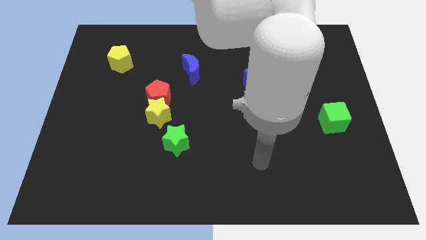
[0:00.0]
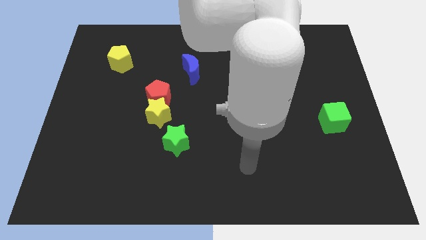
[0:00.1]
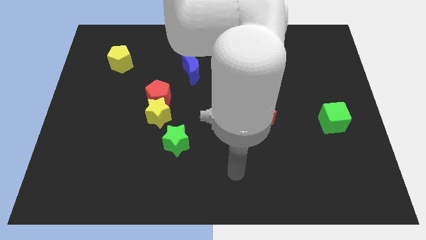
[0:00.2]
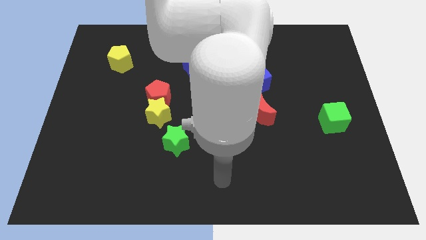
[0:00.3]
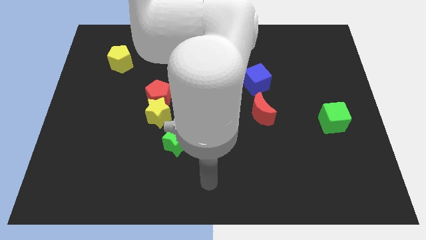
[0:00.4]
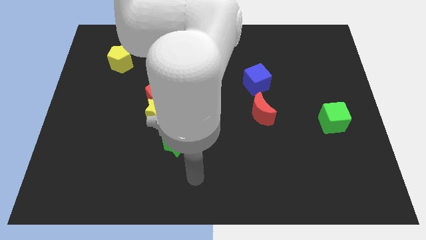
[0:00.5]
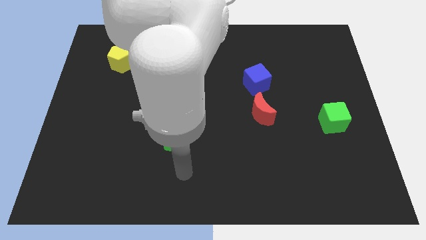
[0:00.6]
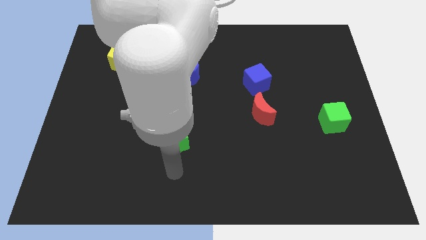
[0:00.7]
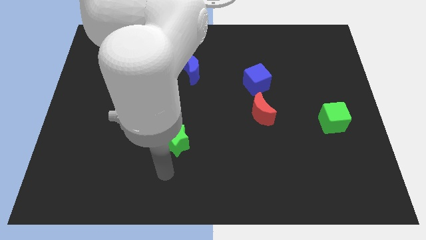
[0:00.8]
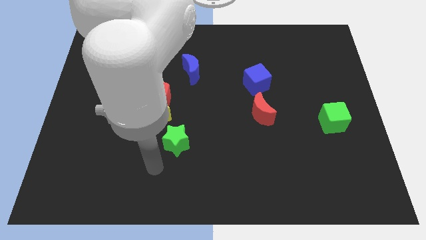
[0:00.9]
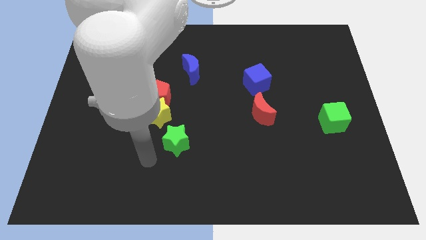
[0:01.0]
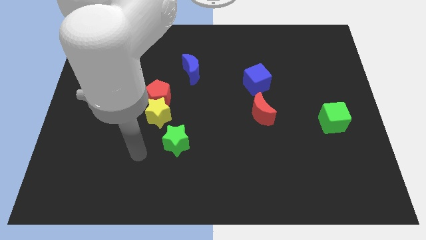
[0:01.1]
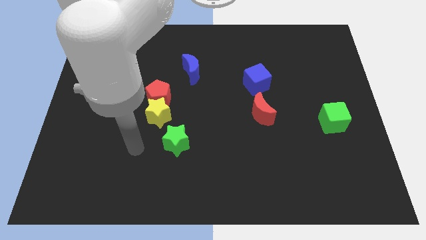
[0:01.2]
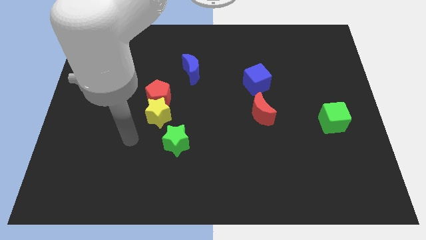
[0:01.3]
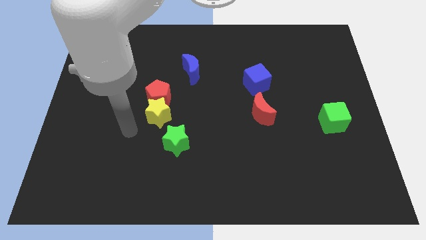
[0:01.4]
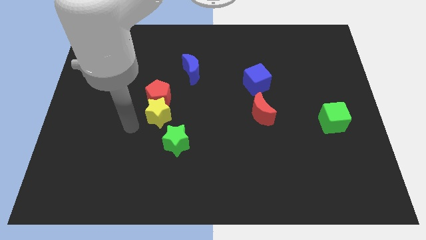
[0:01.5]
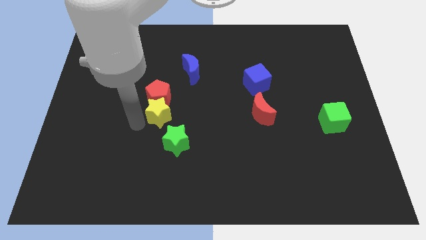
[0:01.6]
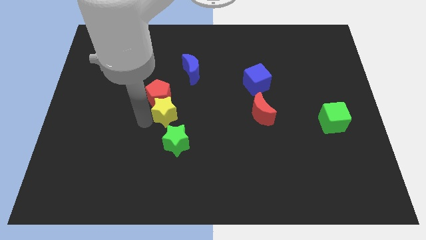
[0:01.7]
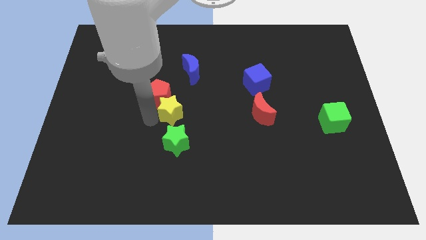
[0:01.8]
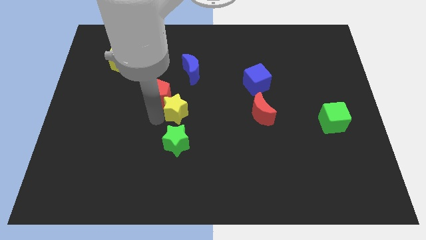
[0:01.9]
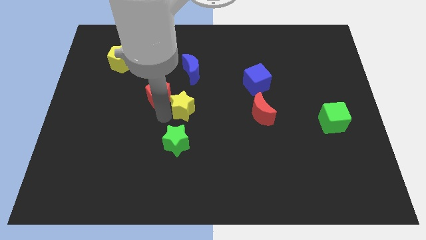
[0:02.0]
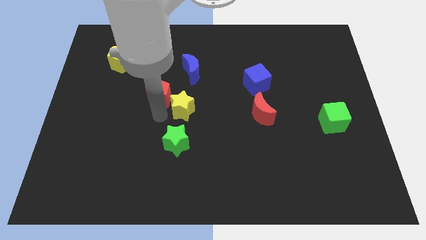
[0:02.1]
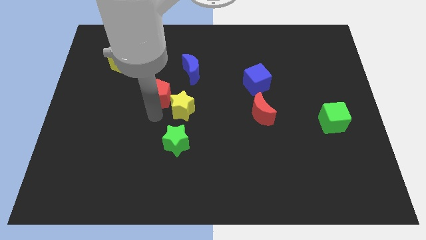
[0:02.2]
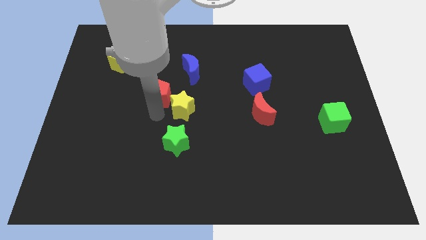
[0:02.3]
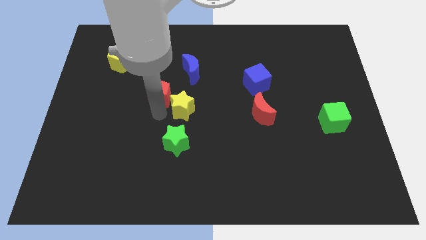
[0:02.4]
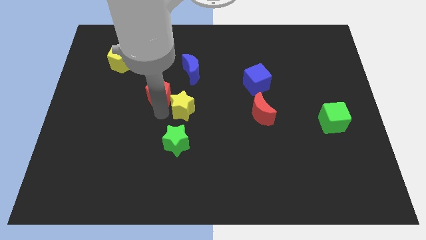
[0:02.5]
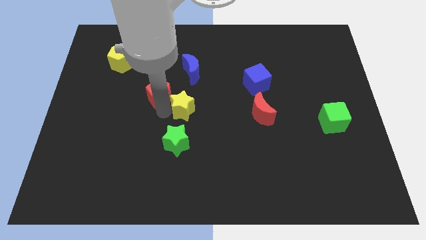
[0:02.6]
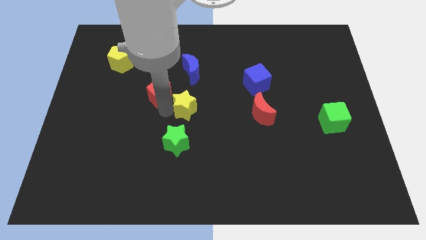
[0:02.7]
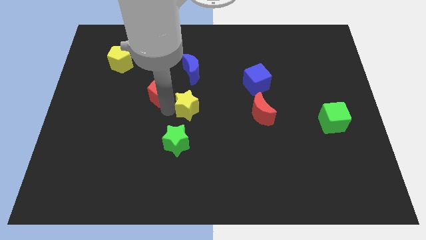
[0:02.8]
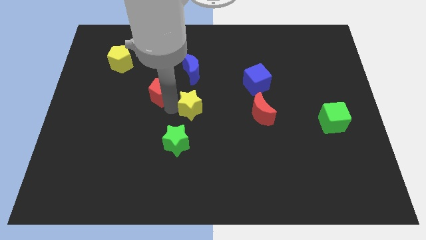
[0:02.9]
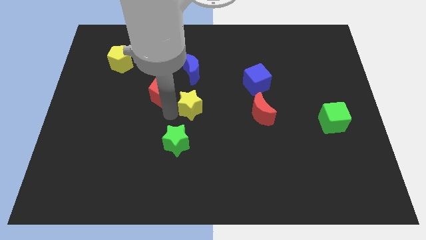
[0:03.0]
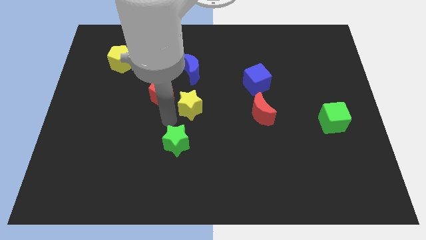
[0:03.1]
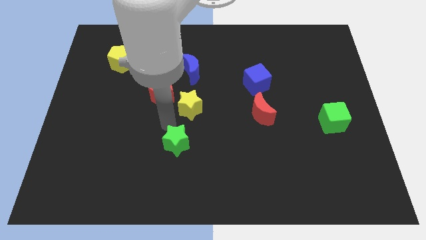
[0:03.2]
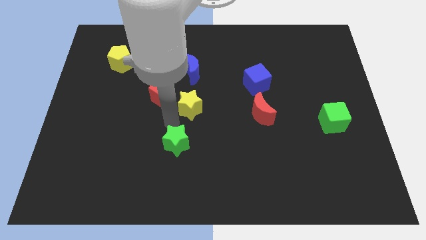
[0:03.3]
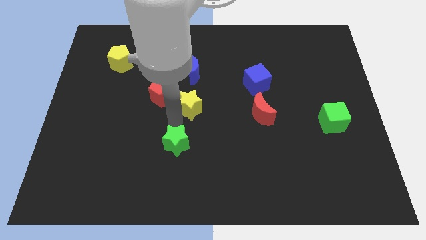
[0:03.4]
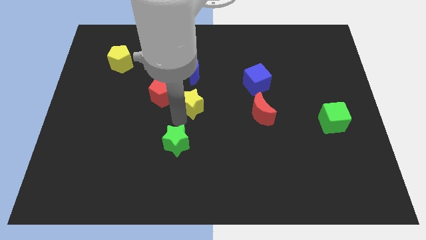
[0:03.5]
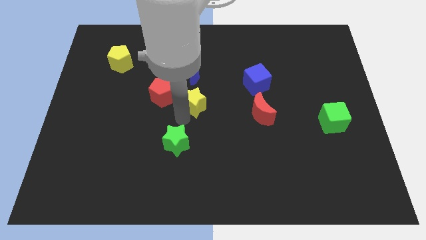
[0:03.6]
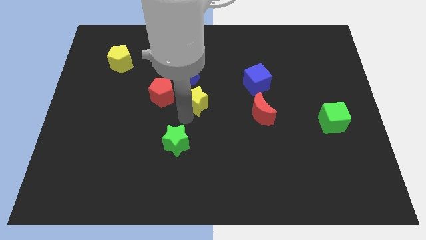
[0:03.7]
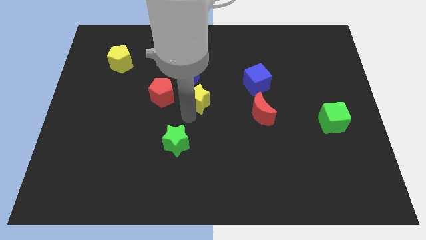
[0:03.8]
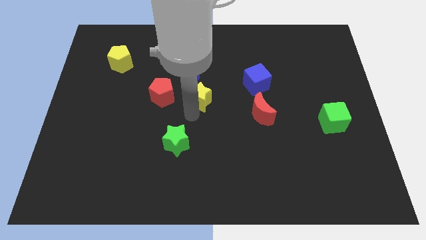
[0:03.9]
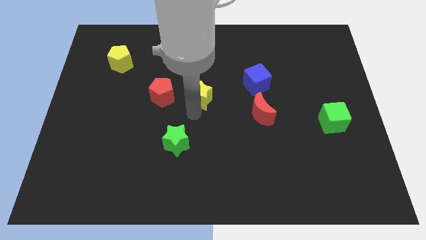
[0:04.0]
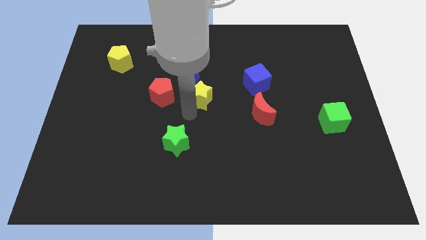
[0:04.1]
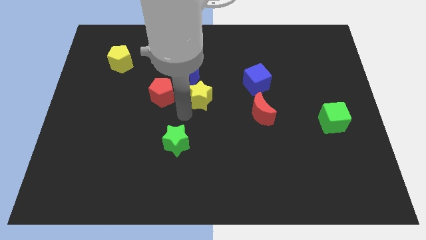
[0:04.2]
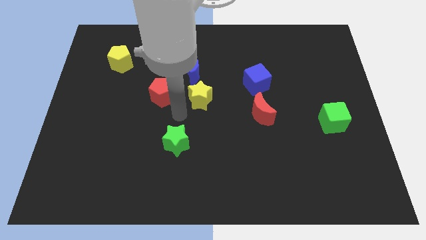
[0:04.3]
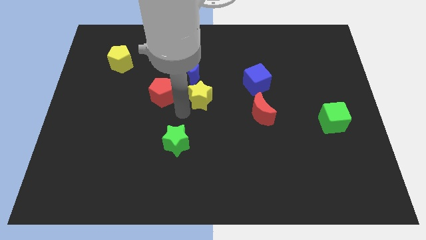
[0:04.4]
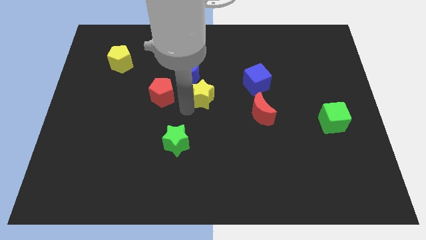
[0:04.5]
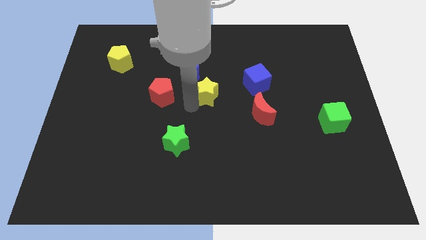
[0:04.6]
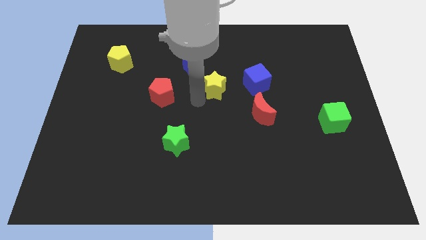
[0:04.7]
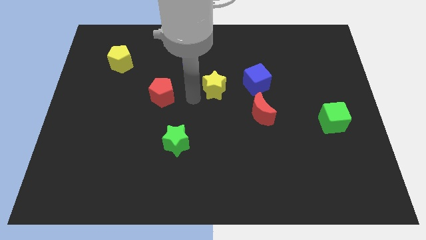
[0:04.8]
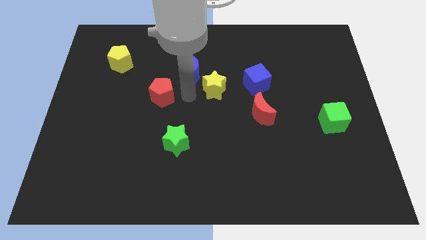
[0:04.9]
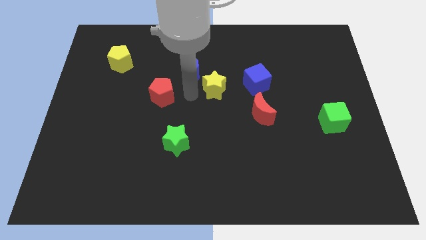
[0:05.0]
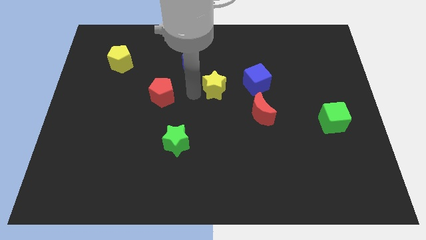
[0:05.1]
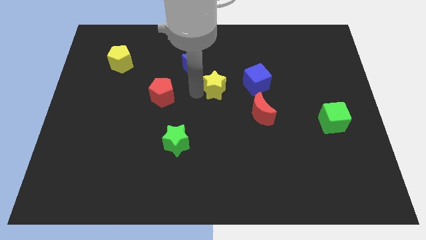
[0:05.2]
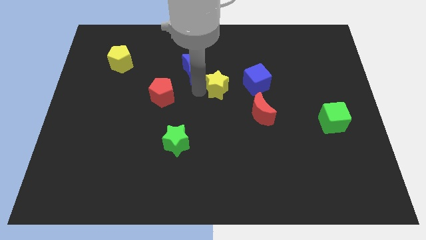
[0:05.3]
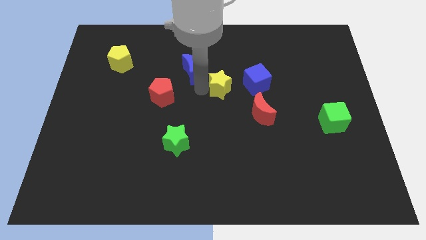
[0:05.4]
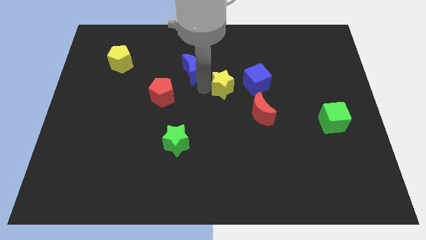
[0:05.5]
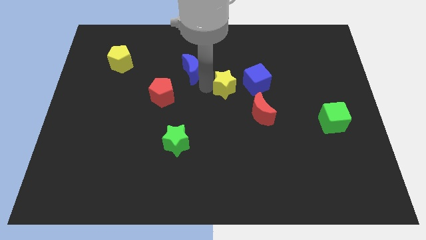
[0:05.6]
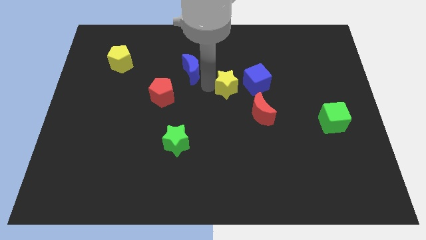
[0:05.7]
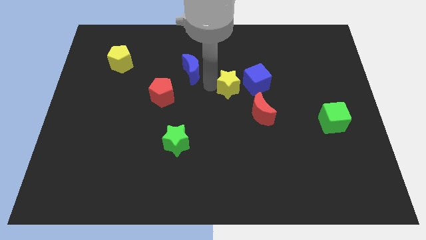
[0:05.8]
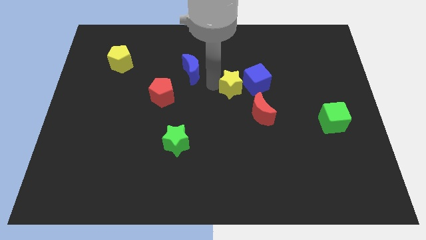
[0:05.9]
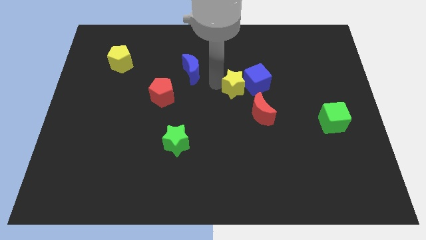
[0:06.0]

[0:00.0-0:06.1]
slide the yellow star close to the blue cube
